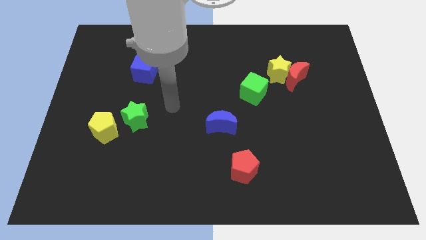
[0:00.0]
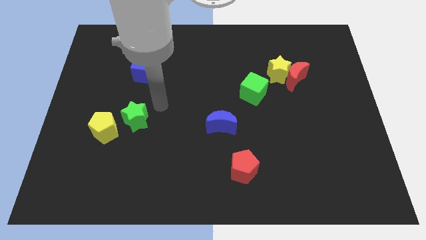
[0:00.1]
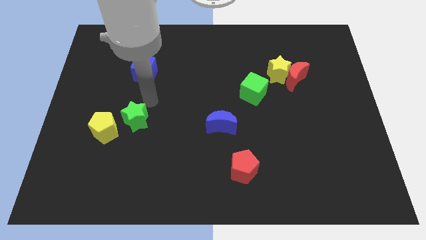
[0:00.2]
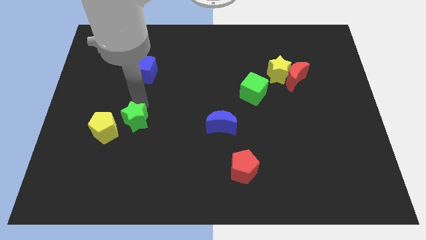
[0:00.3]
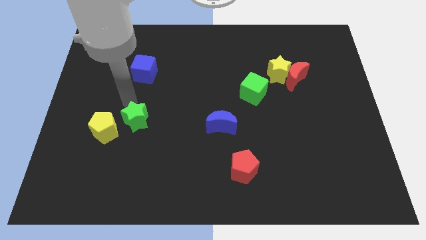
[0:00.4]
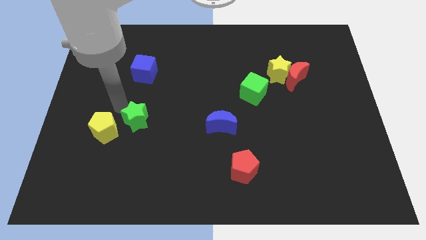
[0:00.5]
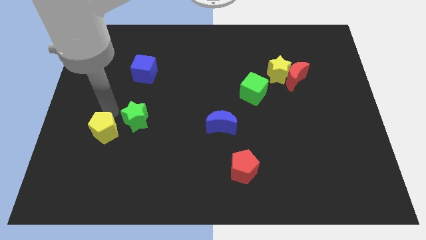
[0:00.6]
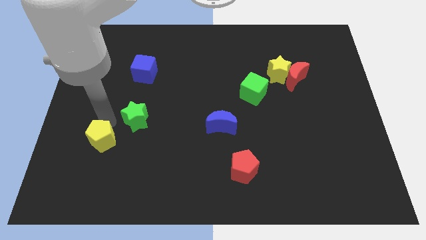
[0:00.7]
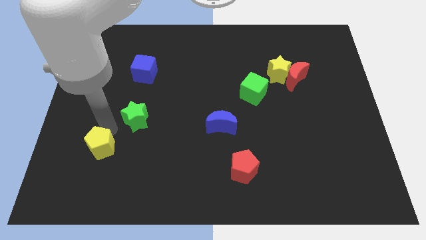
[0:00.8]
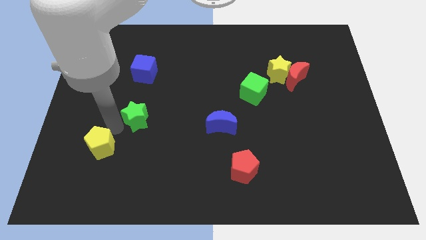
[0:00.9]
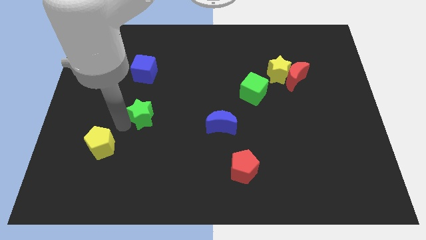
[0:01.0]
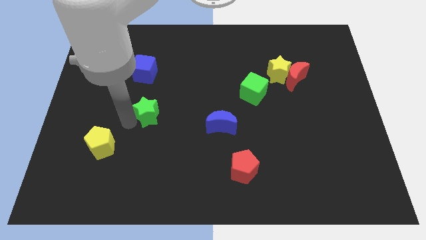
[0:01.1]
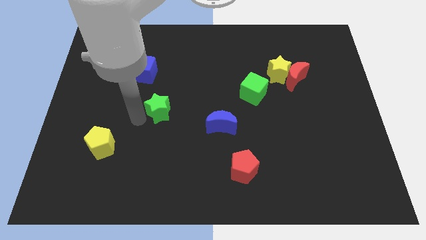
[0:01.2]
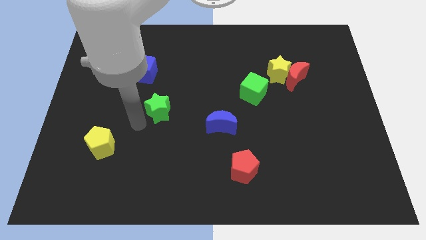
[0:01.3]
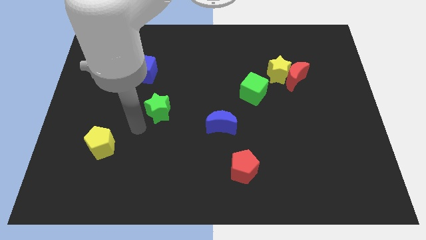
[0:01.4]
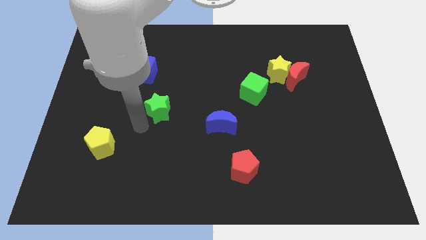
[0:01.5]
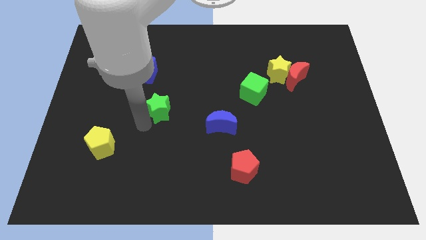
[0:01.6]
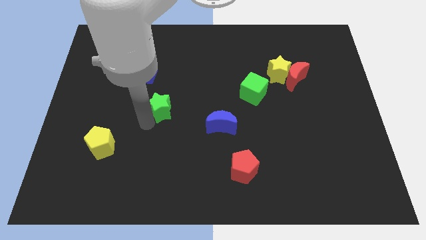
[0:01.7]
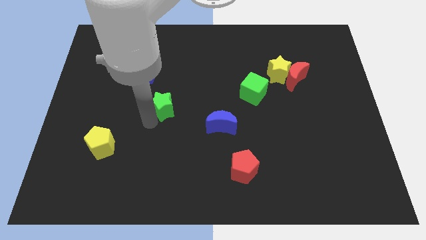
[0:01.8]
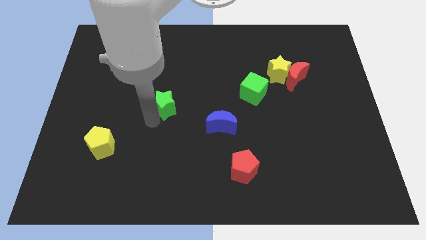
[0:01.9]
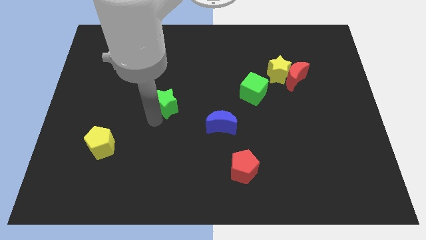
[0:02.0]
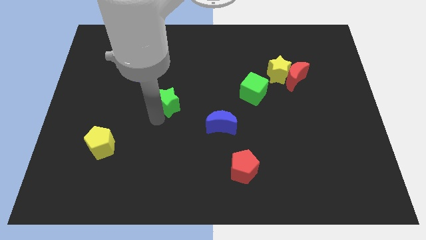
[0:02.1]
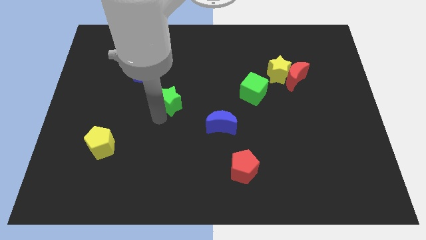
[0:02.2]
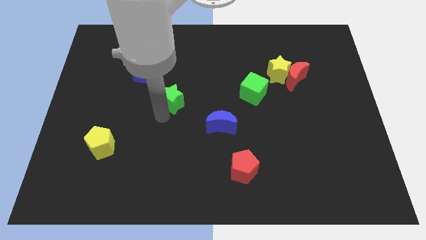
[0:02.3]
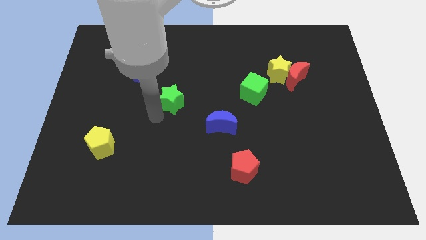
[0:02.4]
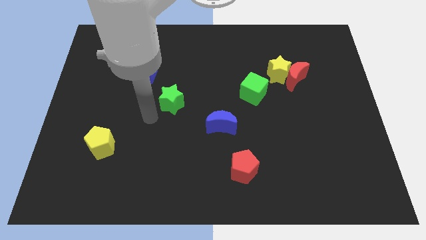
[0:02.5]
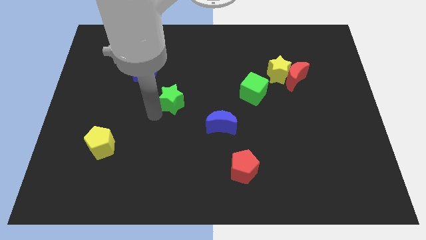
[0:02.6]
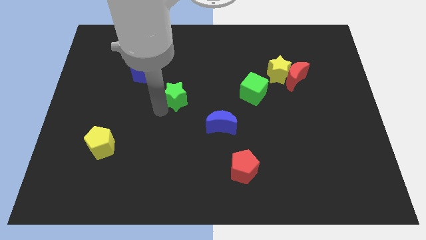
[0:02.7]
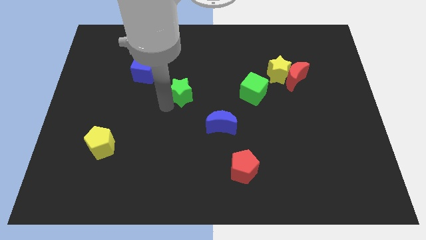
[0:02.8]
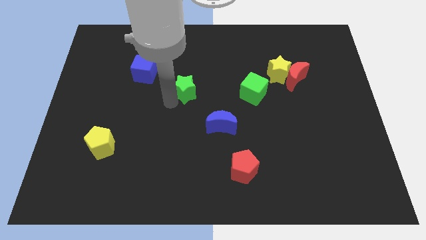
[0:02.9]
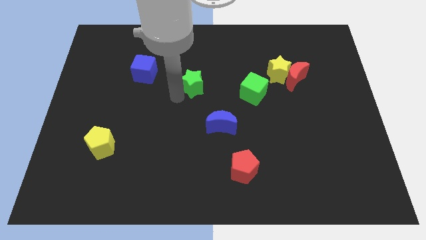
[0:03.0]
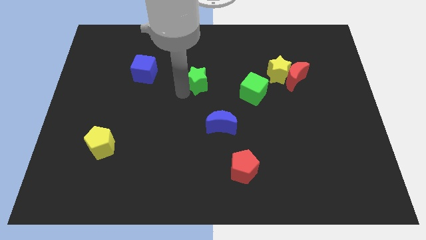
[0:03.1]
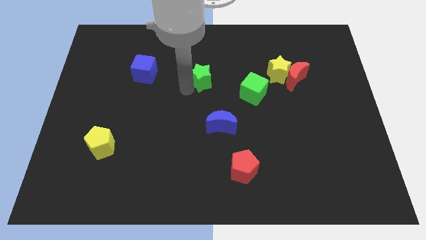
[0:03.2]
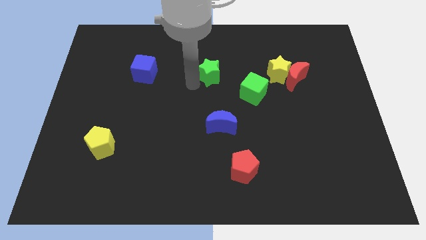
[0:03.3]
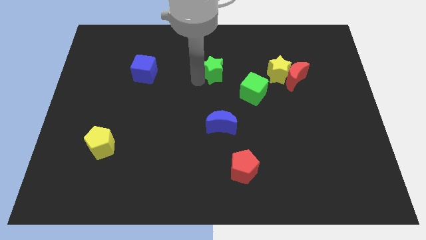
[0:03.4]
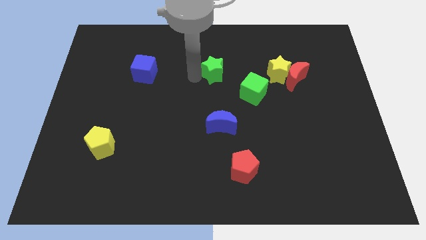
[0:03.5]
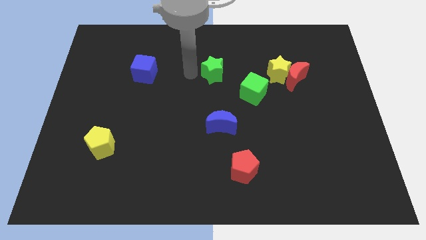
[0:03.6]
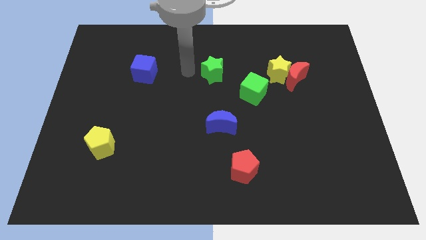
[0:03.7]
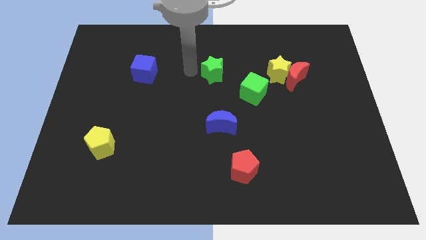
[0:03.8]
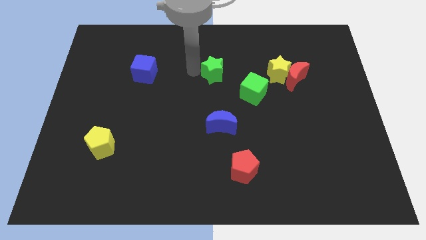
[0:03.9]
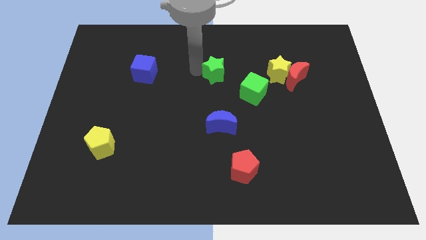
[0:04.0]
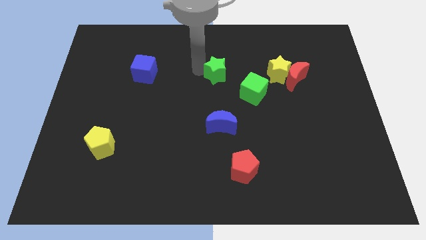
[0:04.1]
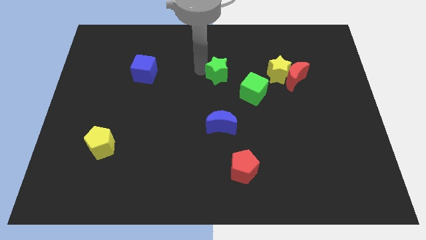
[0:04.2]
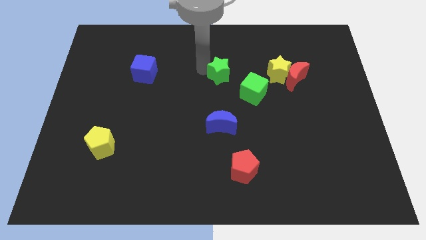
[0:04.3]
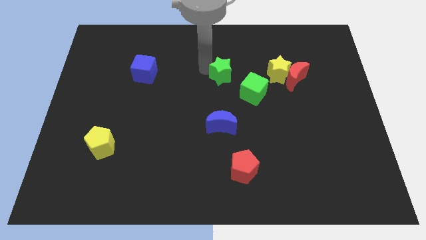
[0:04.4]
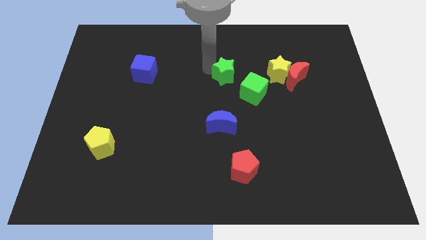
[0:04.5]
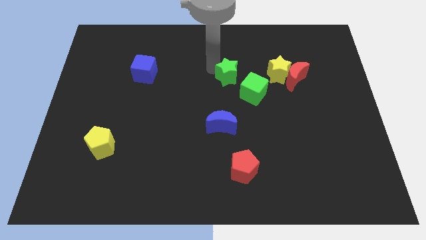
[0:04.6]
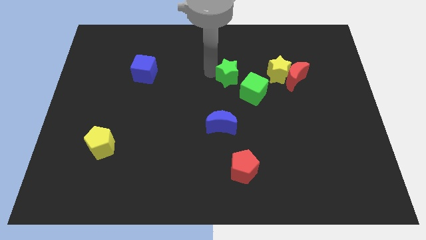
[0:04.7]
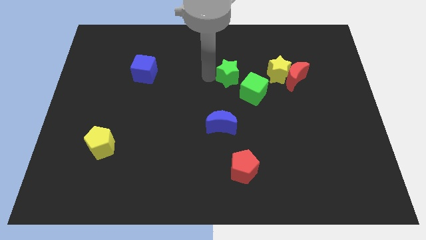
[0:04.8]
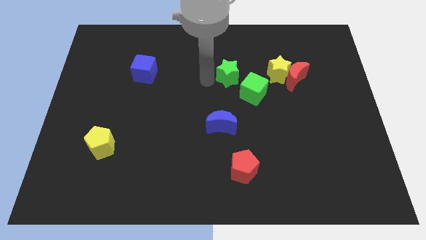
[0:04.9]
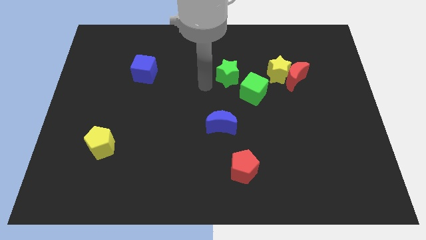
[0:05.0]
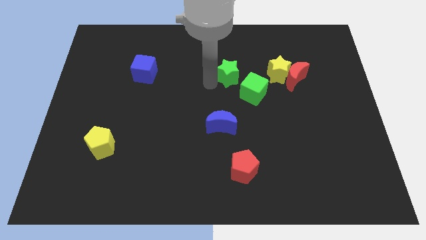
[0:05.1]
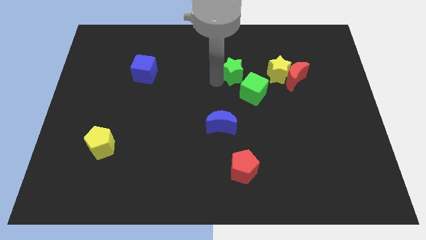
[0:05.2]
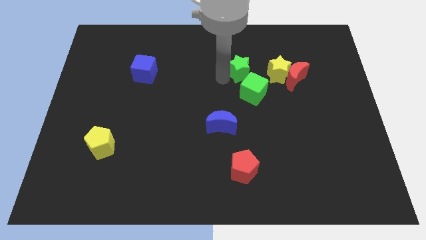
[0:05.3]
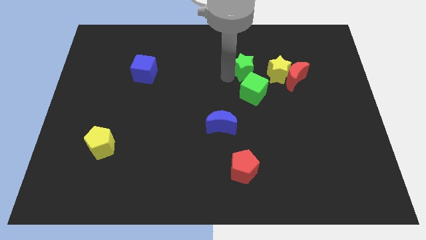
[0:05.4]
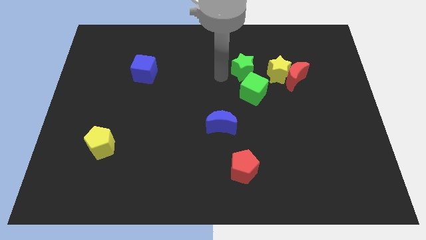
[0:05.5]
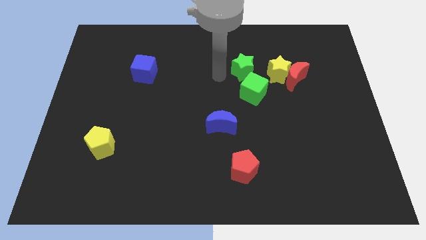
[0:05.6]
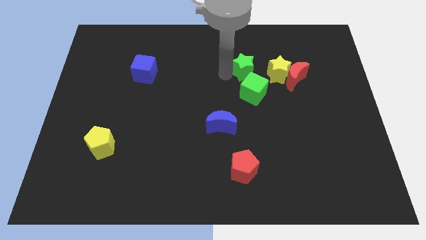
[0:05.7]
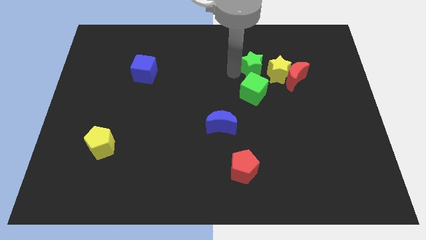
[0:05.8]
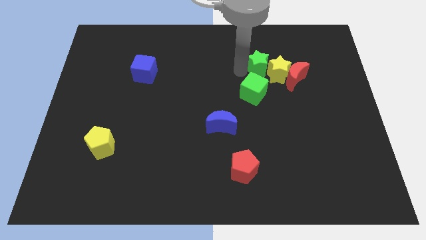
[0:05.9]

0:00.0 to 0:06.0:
push the green star to the top left side of the red moon

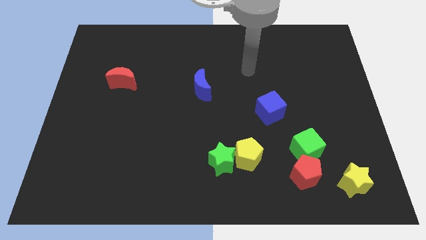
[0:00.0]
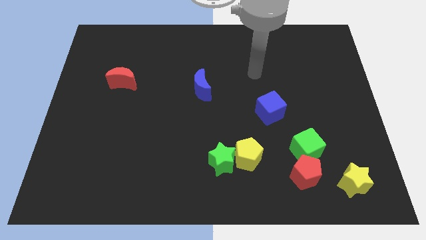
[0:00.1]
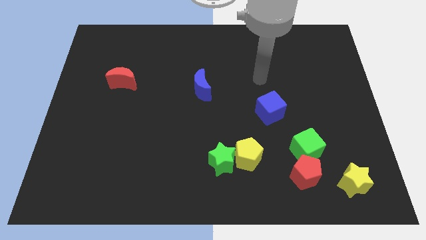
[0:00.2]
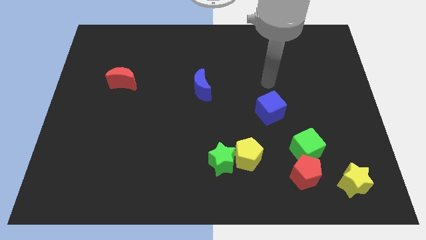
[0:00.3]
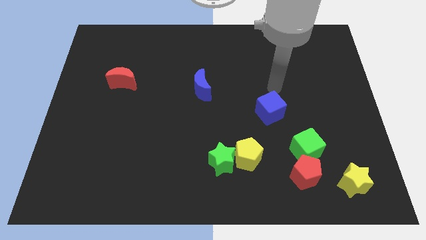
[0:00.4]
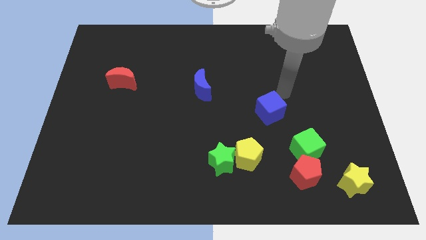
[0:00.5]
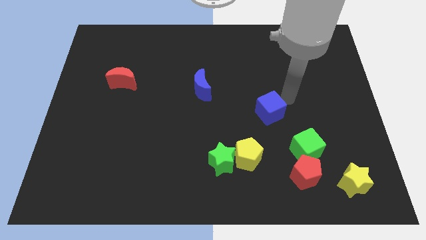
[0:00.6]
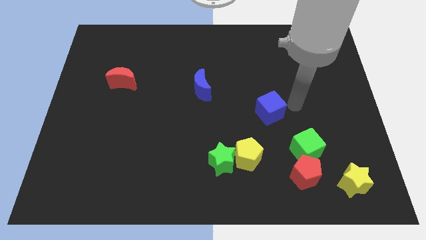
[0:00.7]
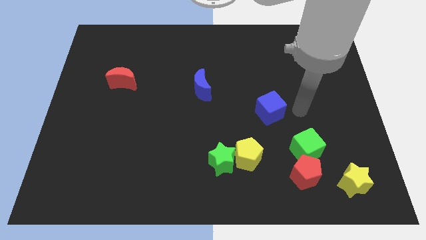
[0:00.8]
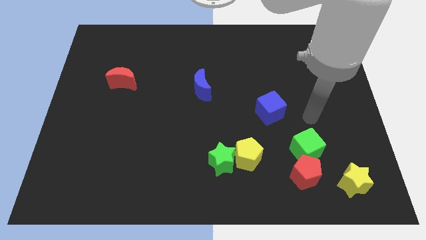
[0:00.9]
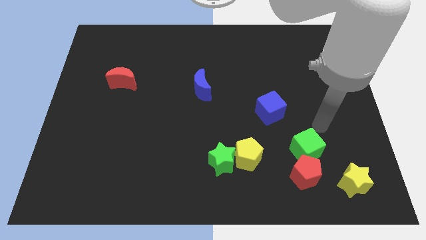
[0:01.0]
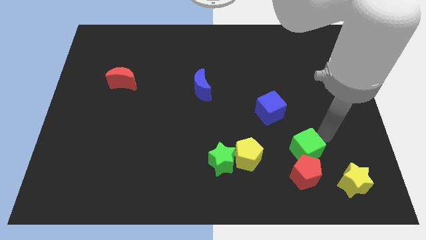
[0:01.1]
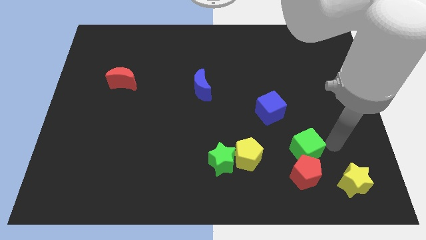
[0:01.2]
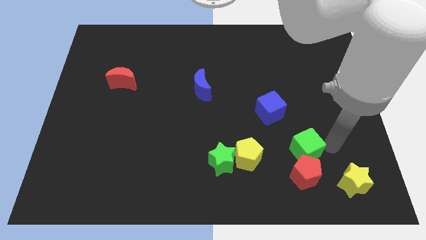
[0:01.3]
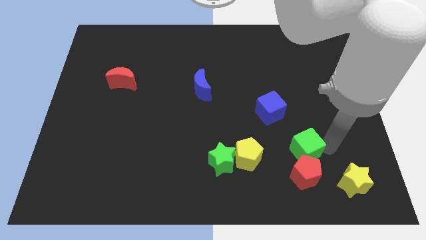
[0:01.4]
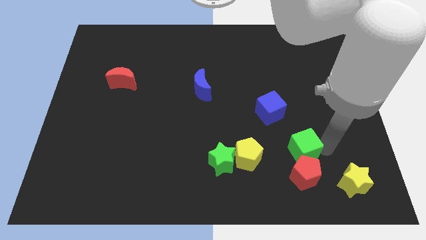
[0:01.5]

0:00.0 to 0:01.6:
slide the green cube to the top left side of the red pentagon
